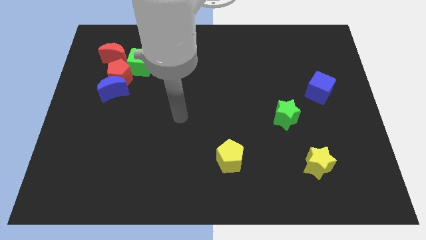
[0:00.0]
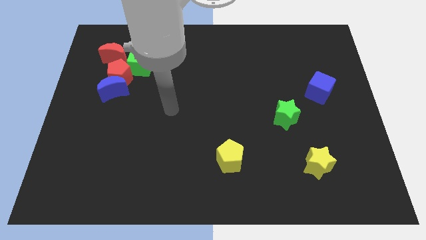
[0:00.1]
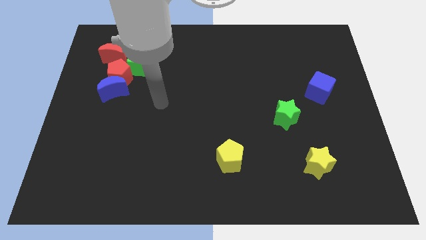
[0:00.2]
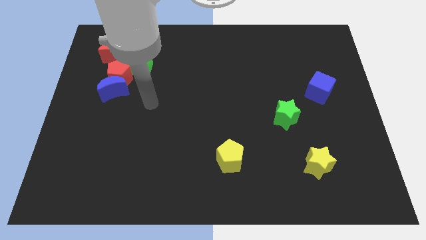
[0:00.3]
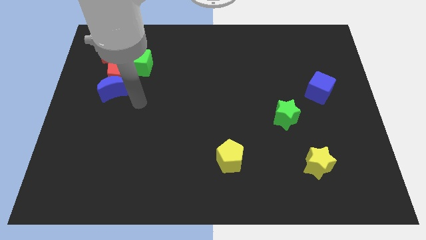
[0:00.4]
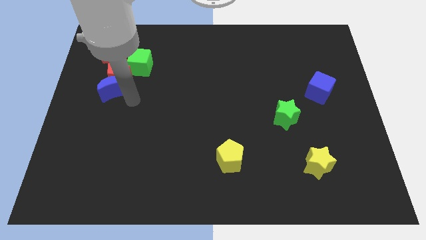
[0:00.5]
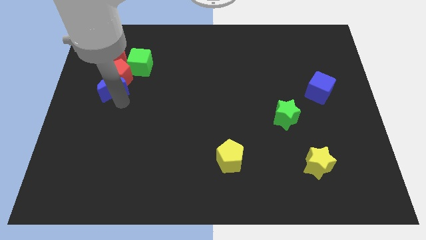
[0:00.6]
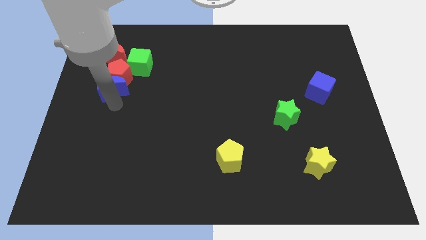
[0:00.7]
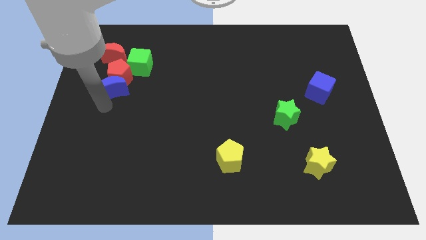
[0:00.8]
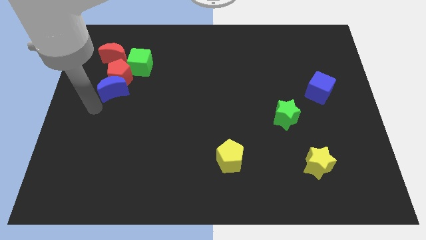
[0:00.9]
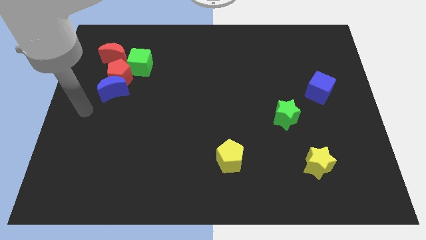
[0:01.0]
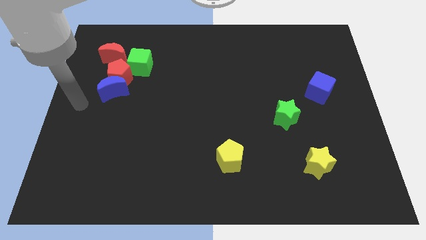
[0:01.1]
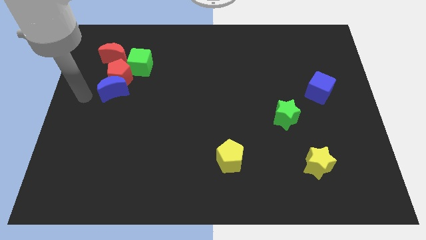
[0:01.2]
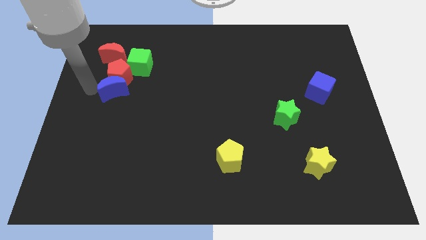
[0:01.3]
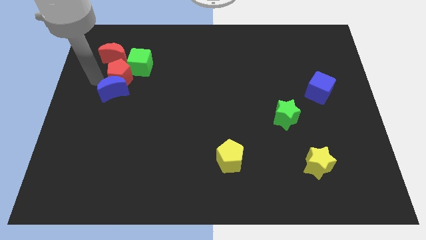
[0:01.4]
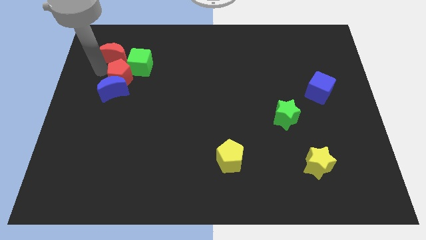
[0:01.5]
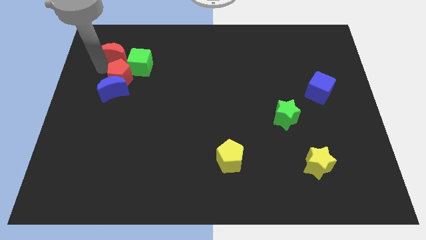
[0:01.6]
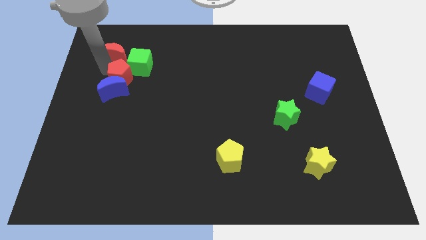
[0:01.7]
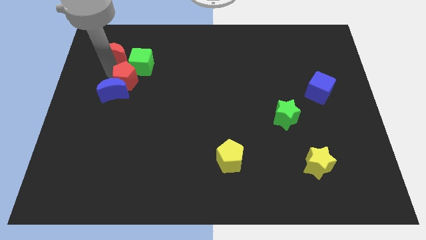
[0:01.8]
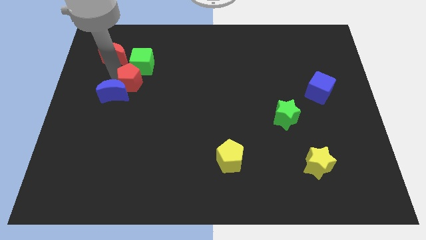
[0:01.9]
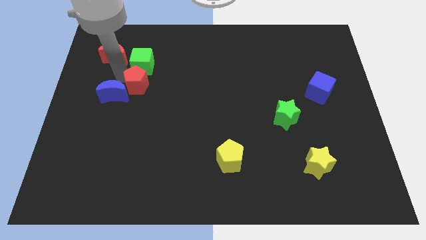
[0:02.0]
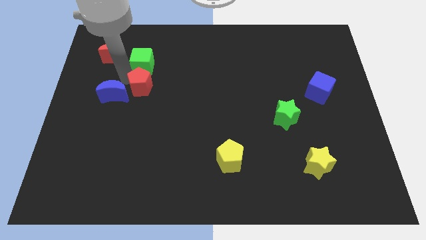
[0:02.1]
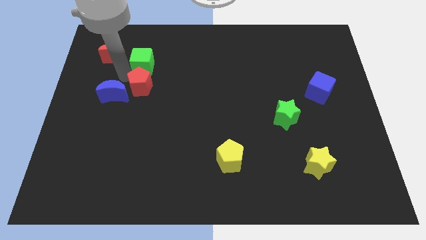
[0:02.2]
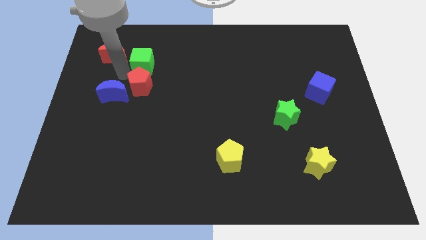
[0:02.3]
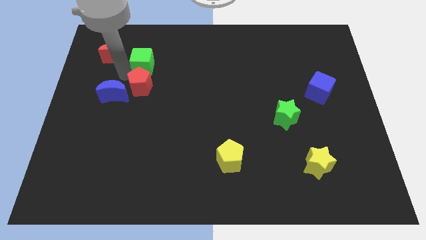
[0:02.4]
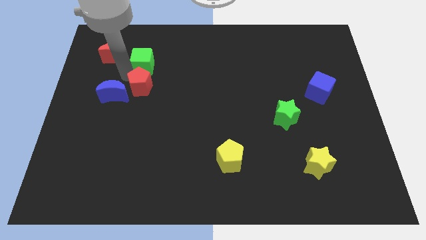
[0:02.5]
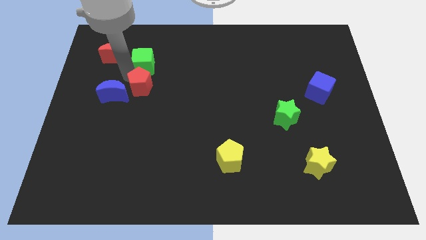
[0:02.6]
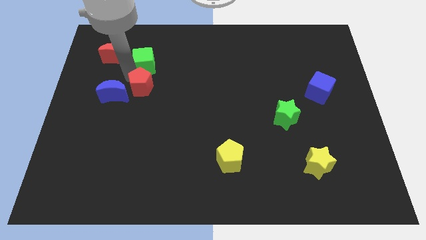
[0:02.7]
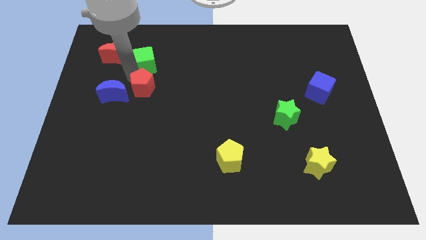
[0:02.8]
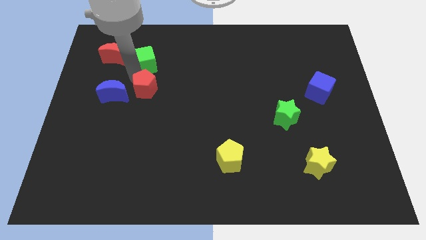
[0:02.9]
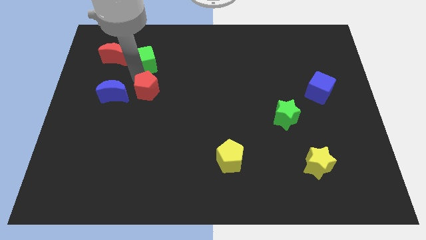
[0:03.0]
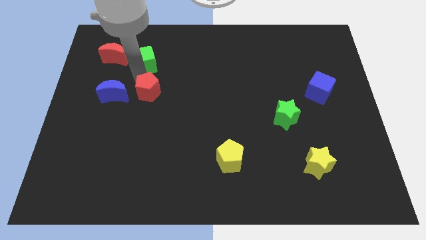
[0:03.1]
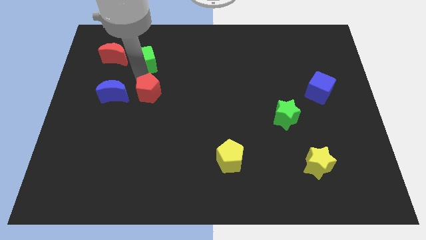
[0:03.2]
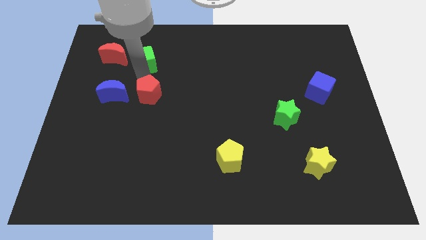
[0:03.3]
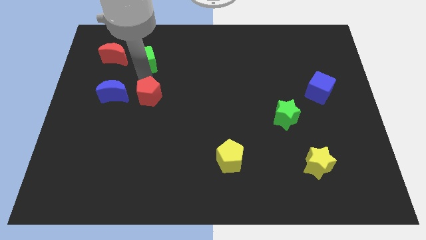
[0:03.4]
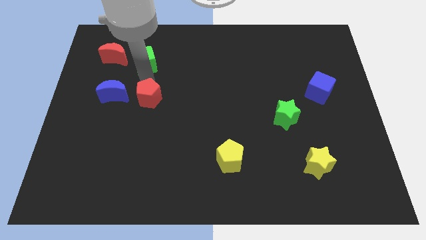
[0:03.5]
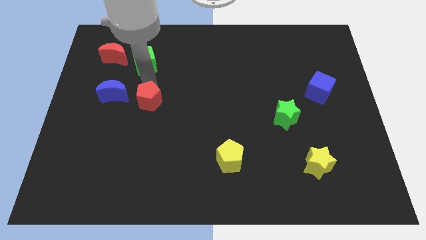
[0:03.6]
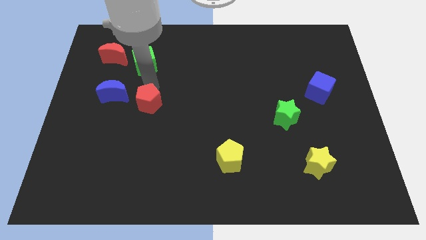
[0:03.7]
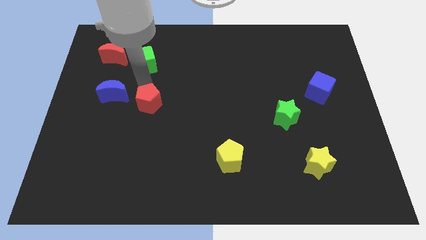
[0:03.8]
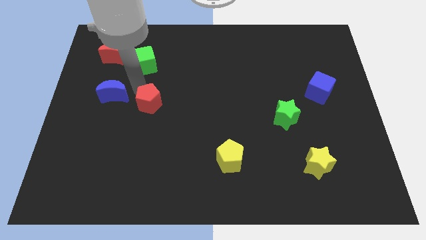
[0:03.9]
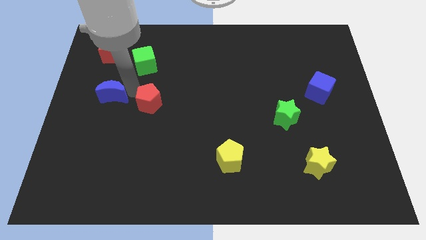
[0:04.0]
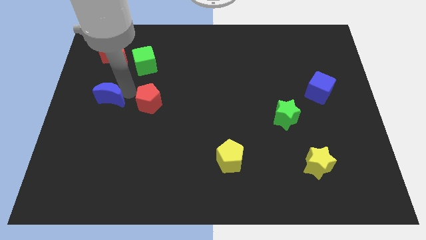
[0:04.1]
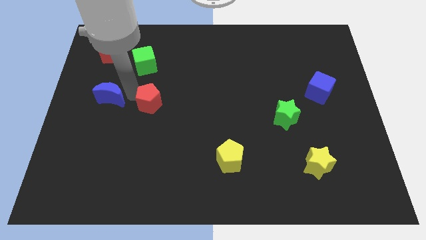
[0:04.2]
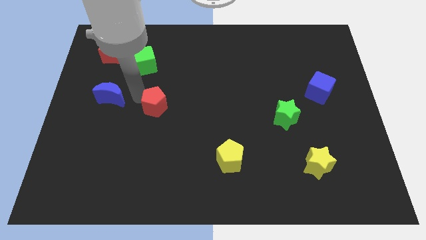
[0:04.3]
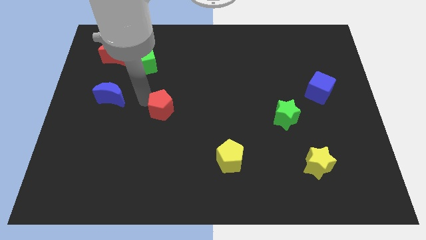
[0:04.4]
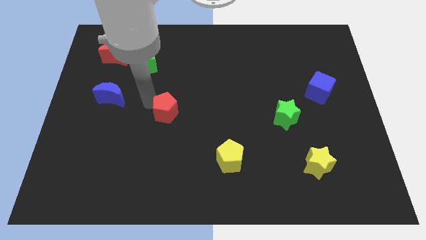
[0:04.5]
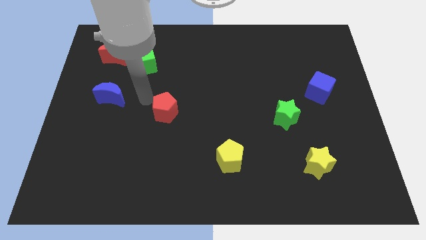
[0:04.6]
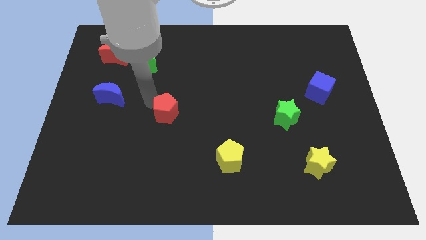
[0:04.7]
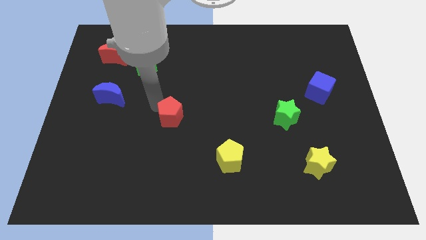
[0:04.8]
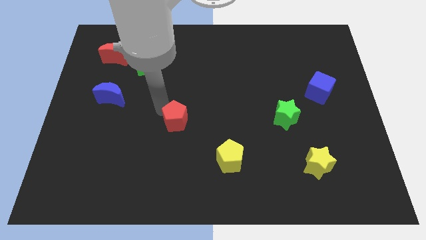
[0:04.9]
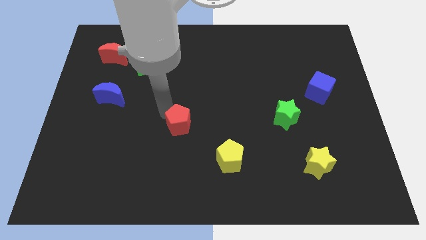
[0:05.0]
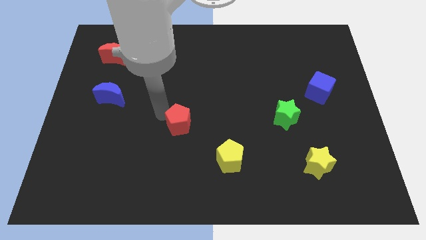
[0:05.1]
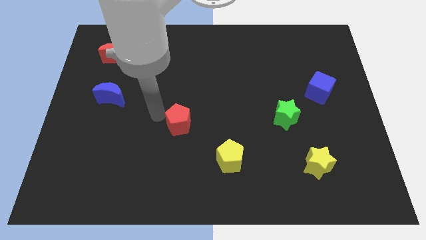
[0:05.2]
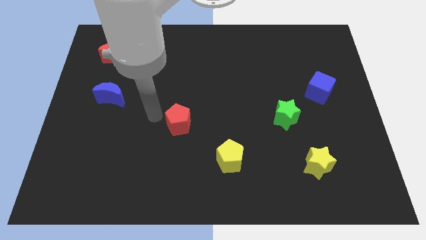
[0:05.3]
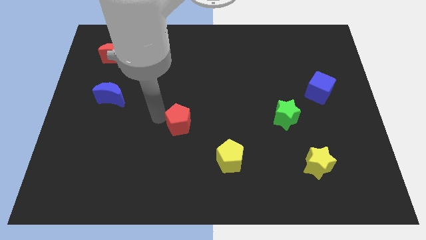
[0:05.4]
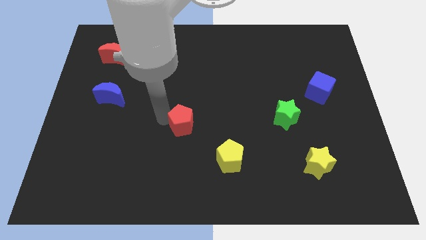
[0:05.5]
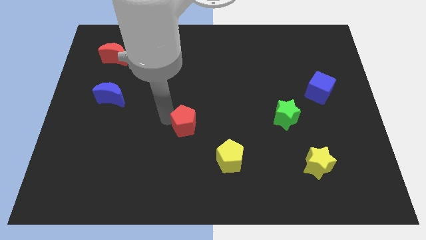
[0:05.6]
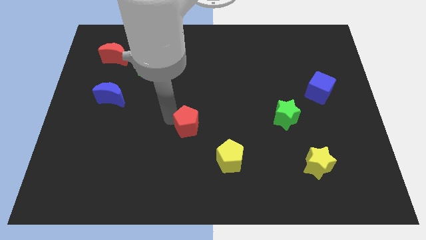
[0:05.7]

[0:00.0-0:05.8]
push the red pentagon to the top left of the yellow pentagon

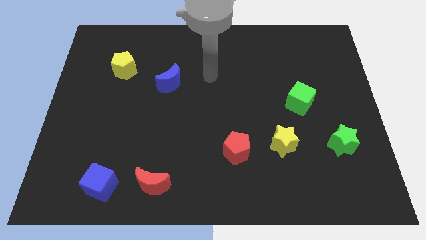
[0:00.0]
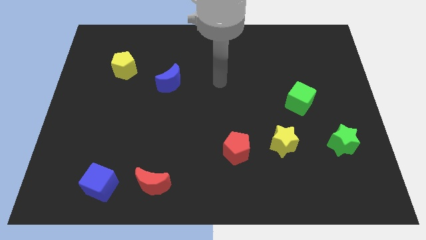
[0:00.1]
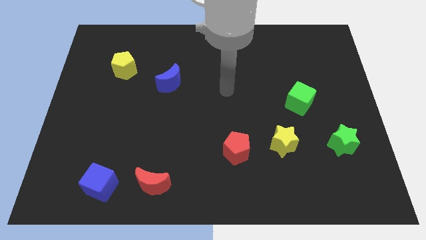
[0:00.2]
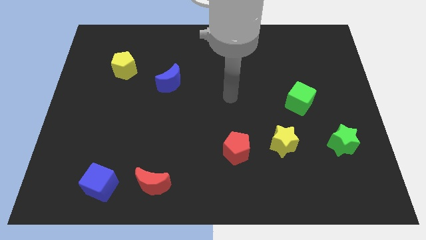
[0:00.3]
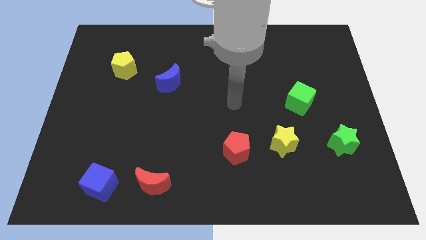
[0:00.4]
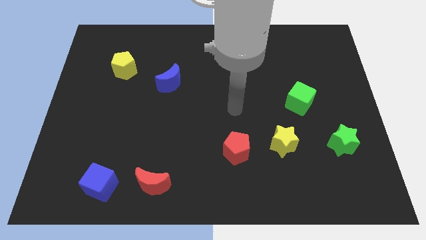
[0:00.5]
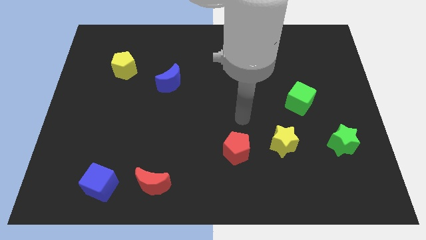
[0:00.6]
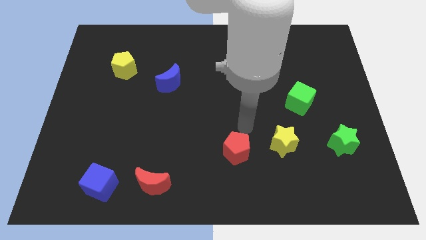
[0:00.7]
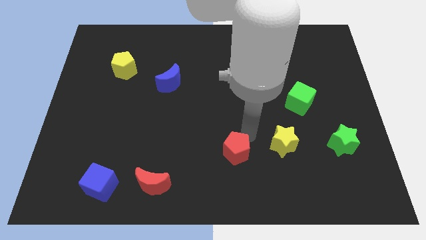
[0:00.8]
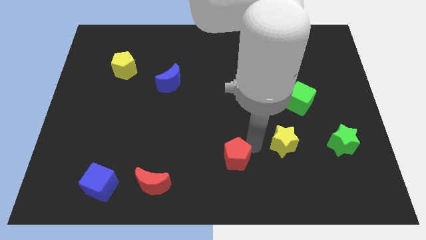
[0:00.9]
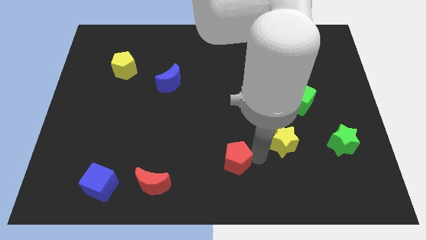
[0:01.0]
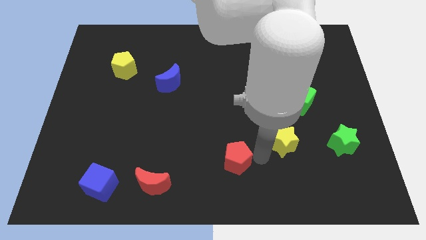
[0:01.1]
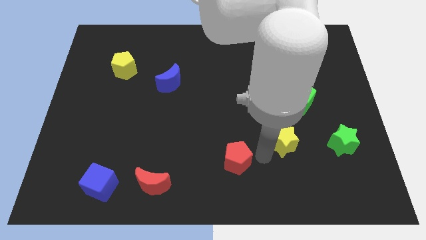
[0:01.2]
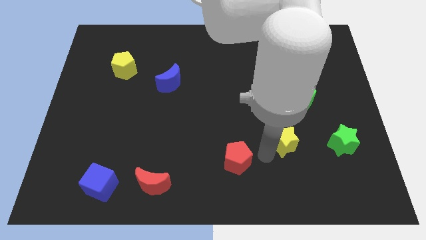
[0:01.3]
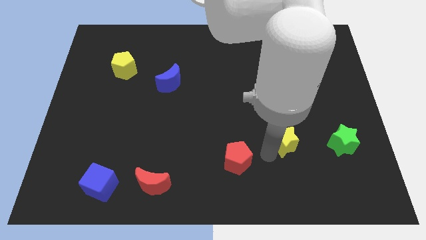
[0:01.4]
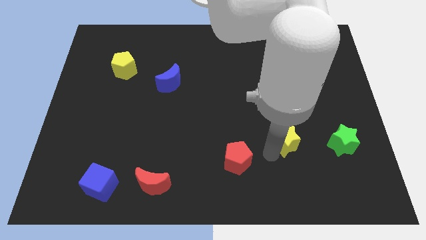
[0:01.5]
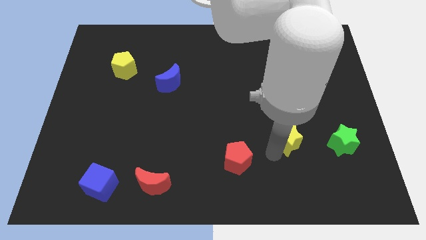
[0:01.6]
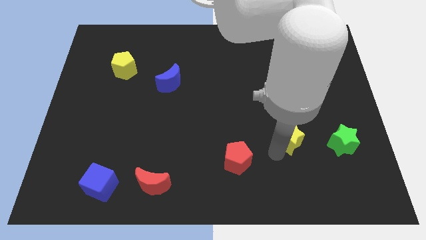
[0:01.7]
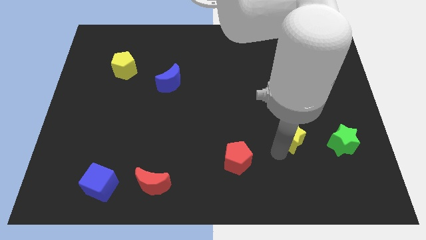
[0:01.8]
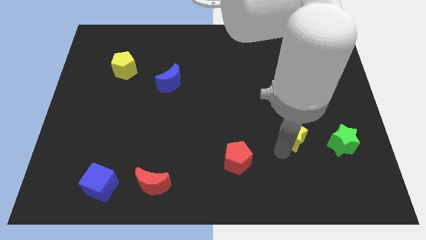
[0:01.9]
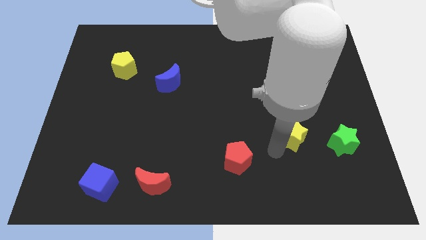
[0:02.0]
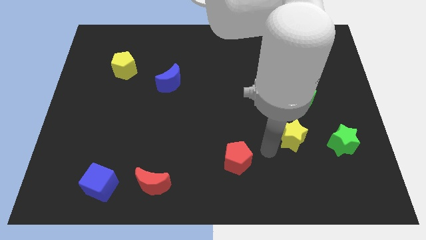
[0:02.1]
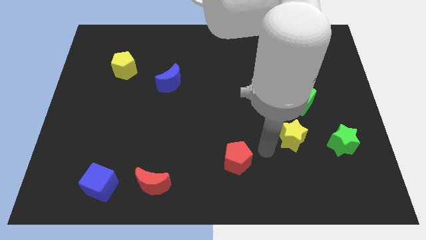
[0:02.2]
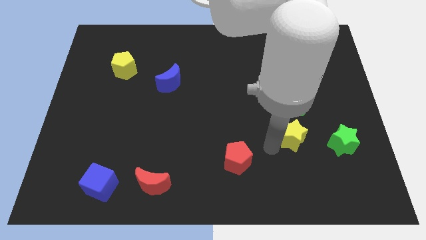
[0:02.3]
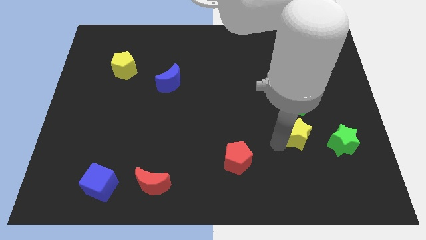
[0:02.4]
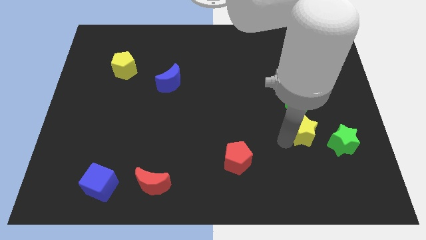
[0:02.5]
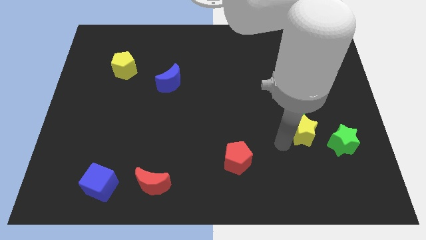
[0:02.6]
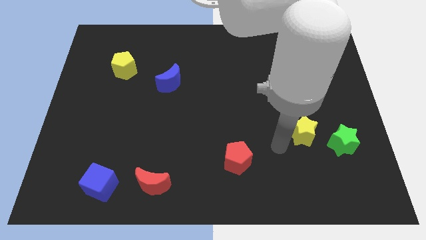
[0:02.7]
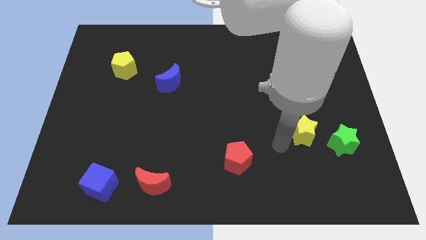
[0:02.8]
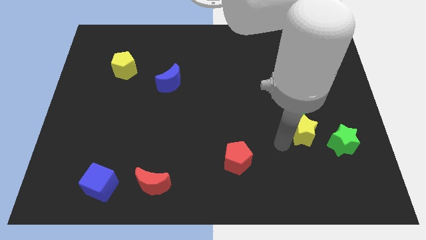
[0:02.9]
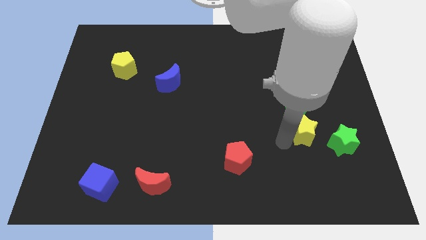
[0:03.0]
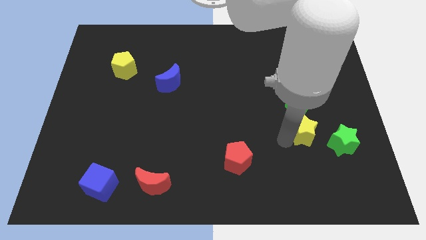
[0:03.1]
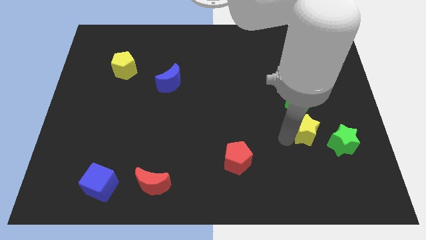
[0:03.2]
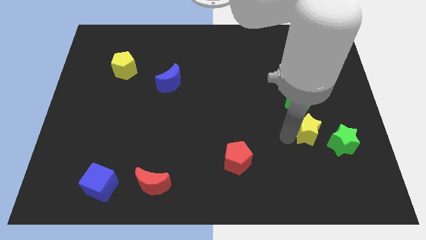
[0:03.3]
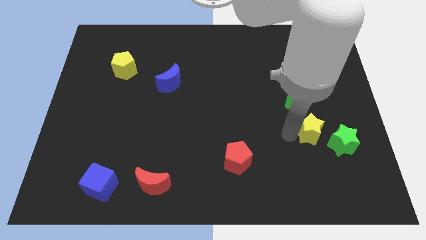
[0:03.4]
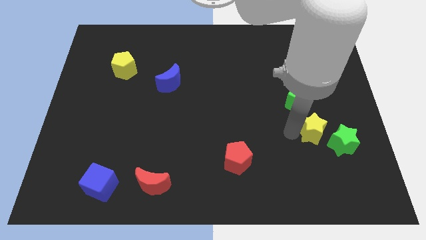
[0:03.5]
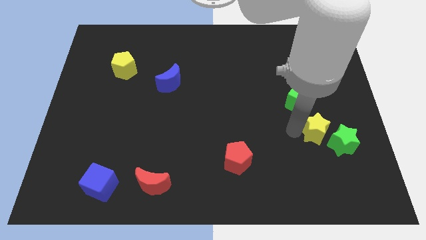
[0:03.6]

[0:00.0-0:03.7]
move the yellow star to the bottom right side of the green cube
